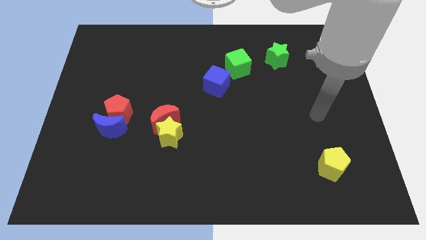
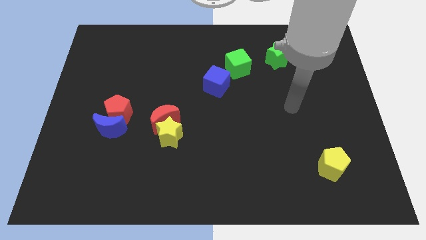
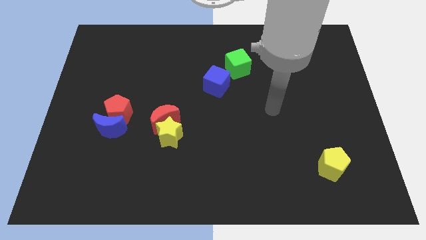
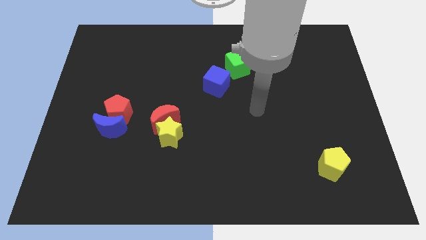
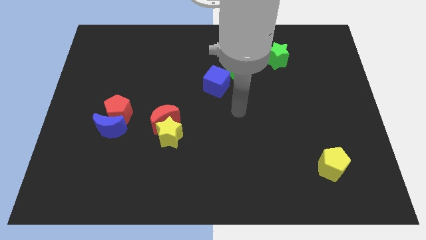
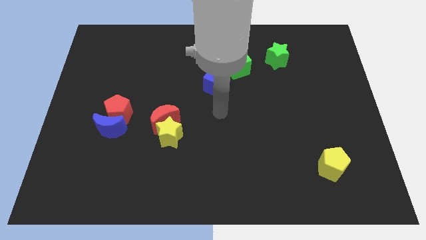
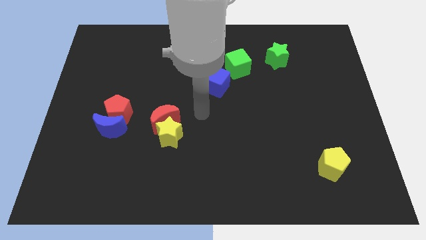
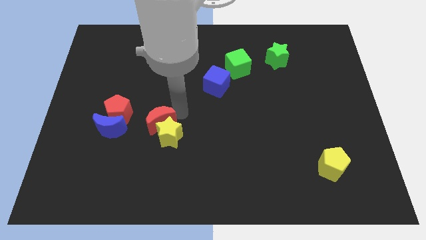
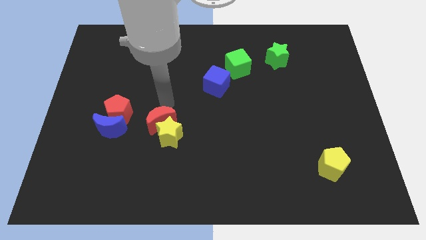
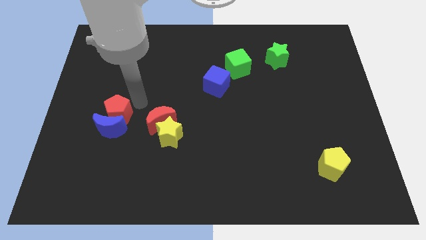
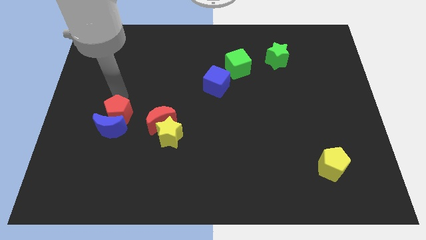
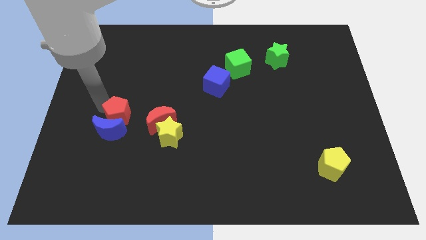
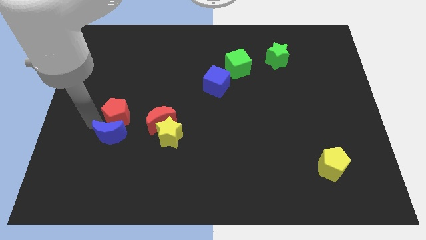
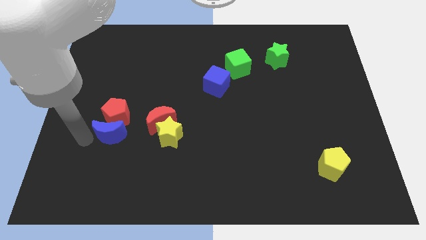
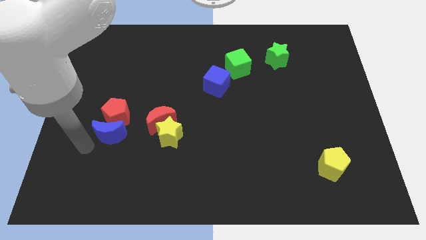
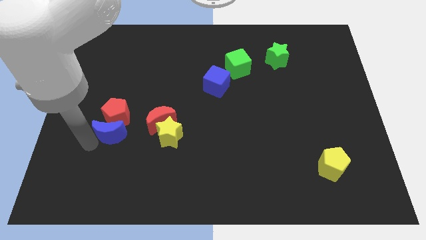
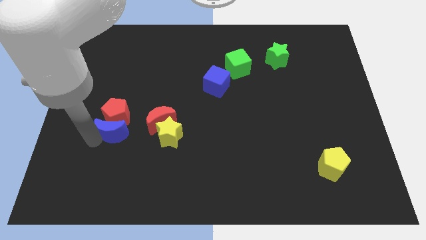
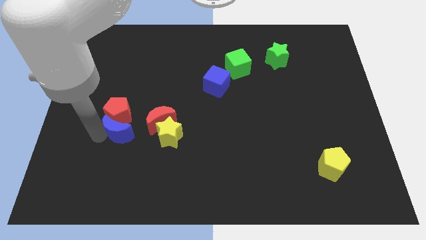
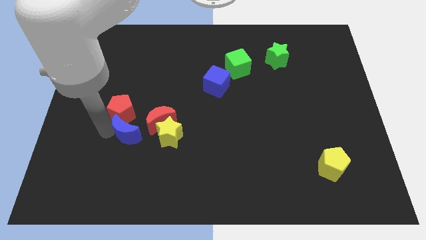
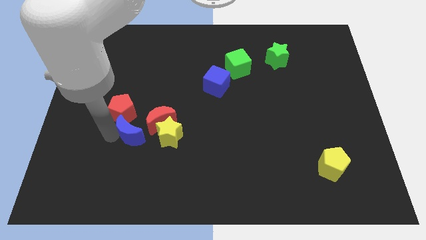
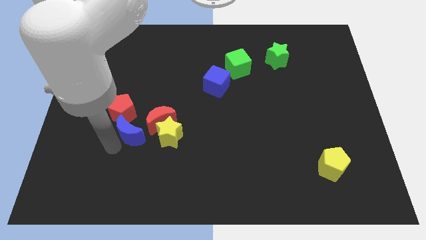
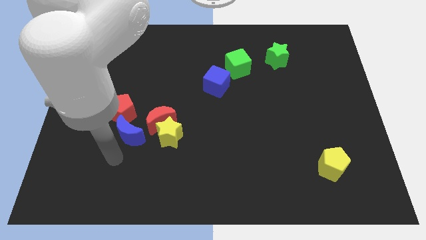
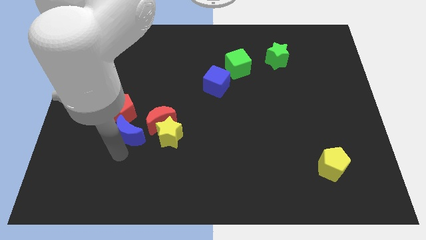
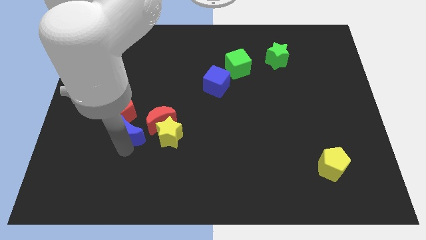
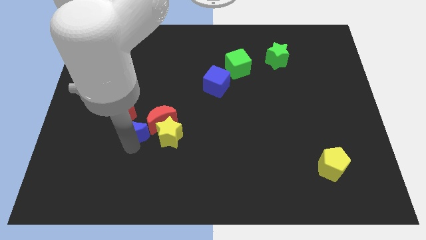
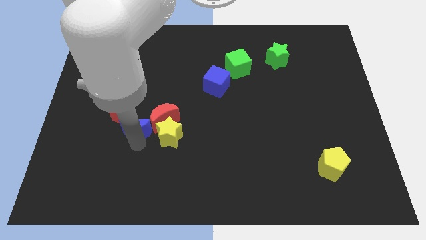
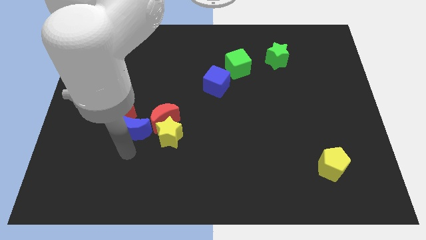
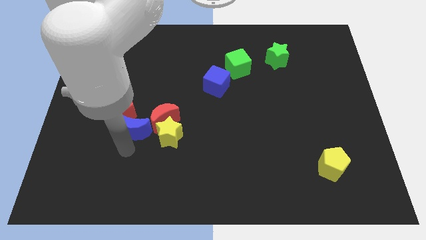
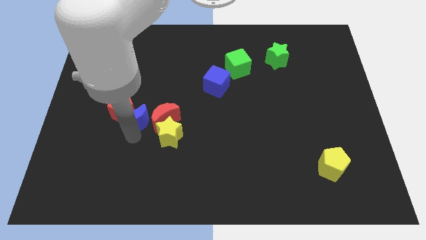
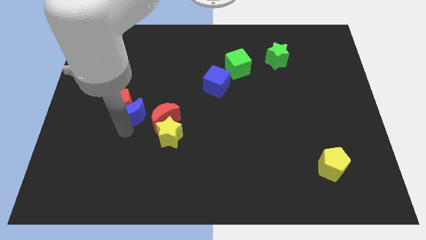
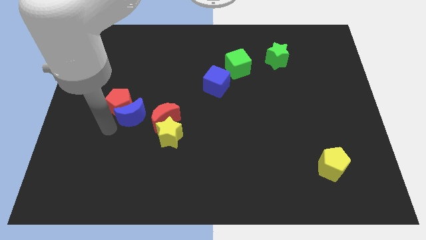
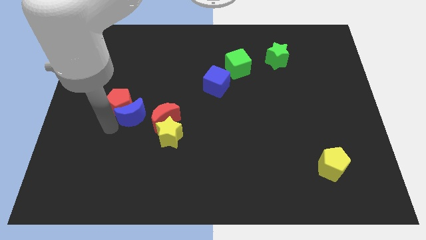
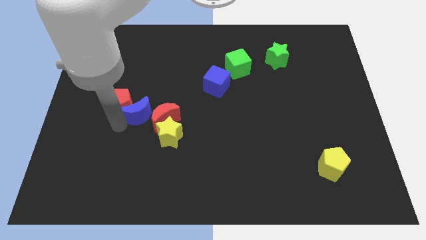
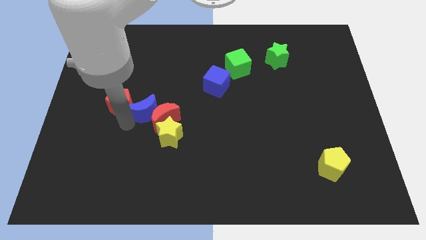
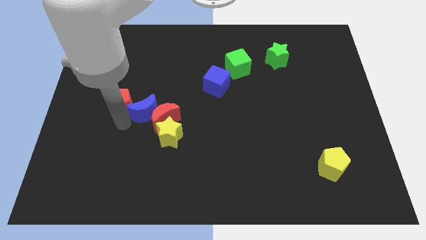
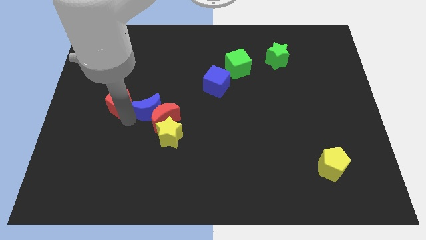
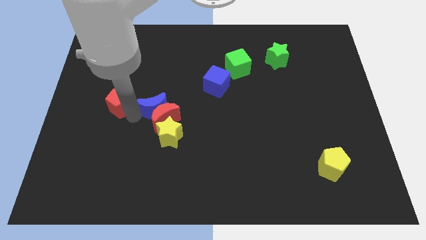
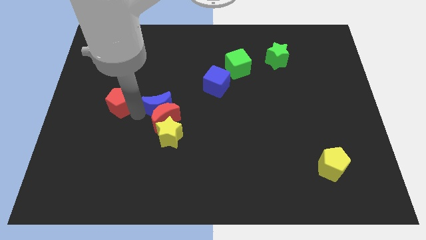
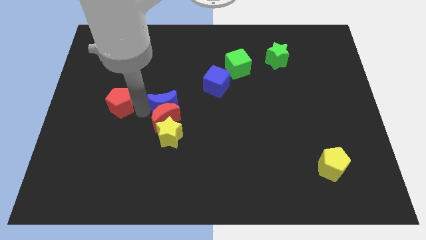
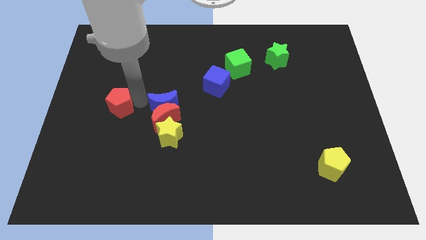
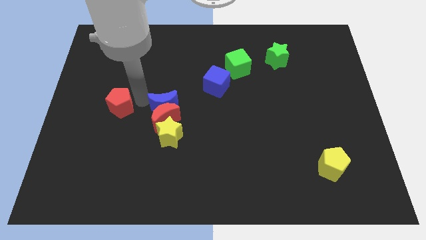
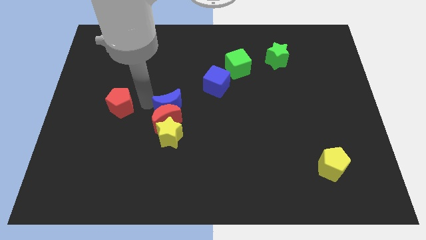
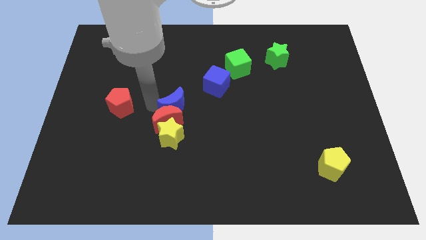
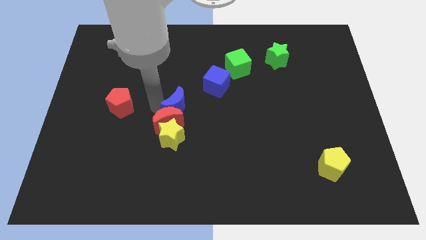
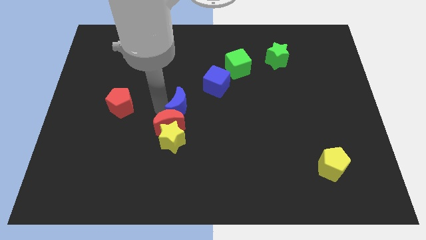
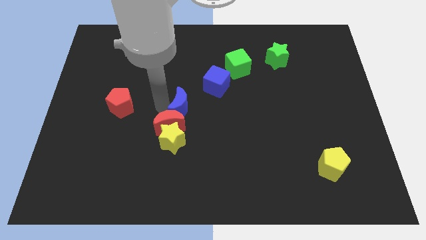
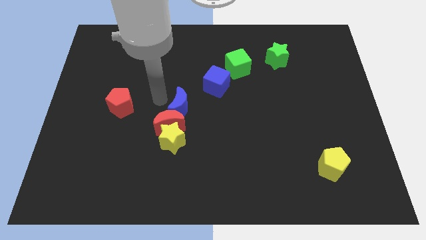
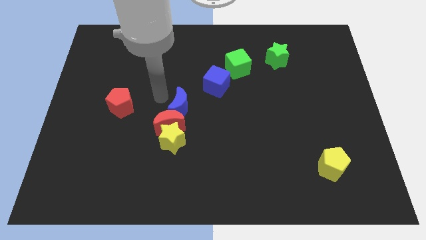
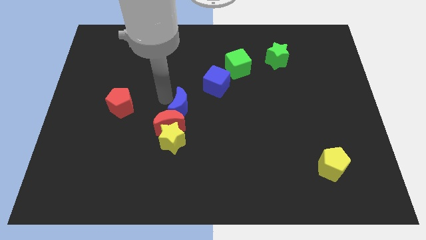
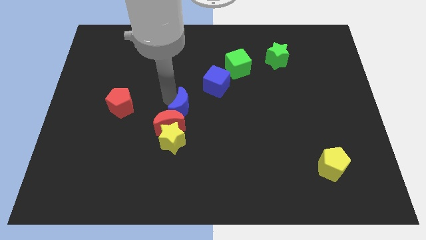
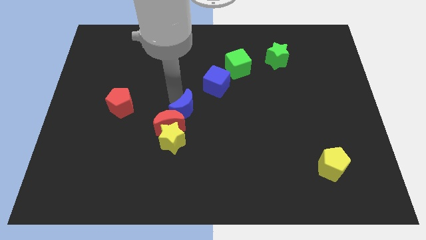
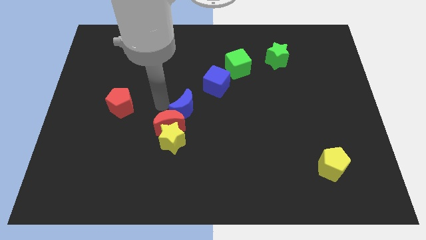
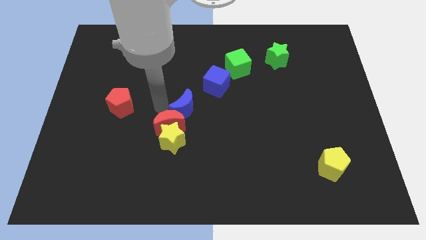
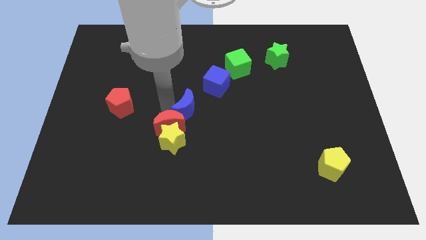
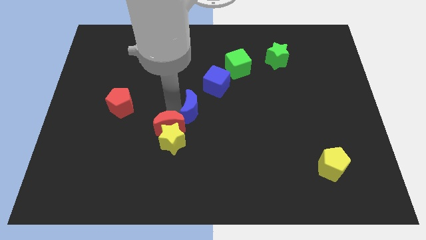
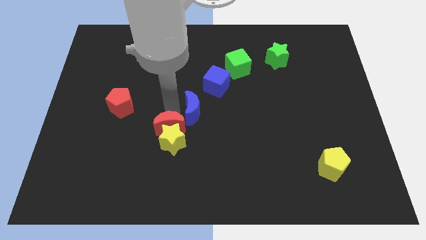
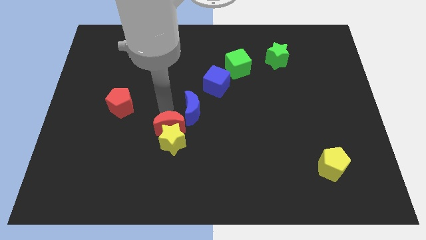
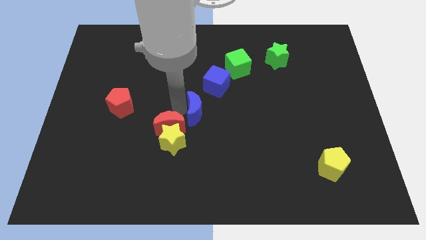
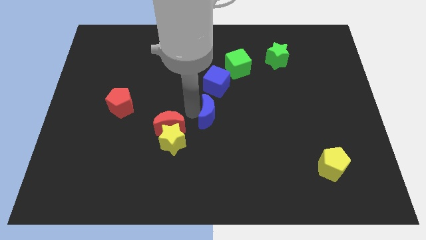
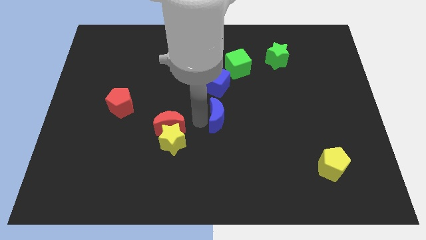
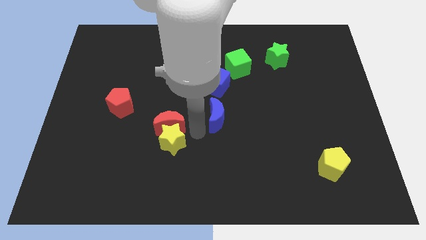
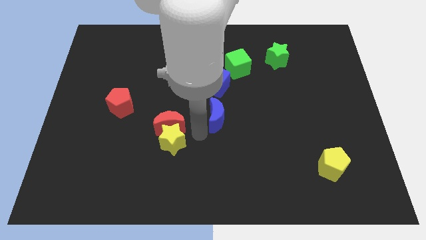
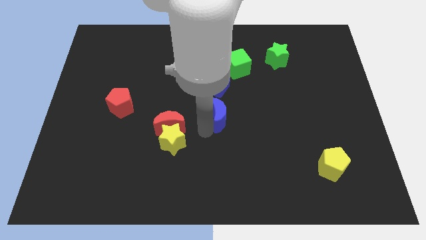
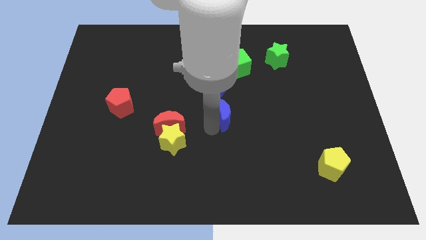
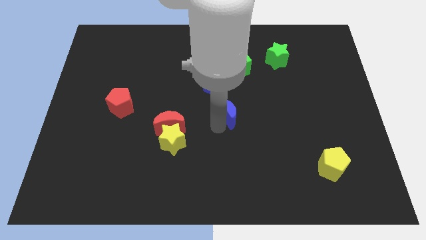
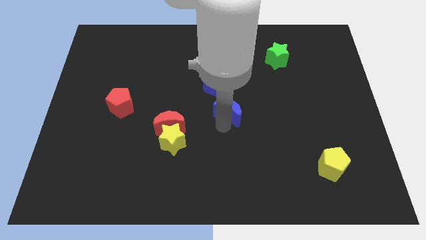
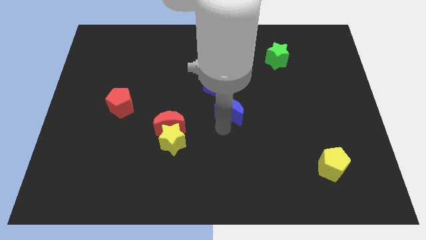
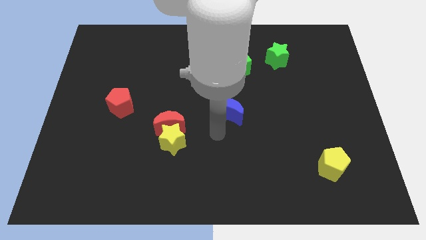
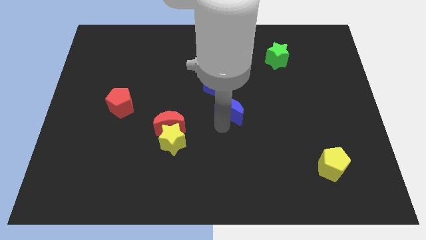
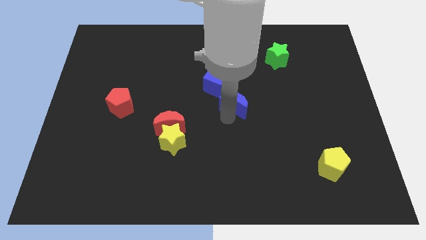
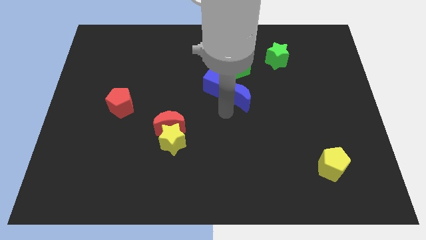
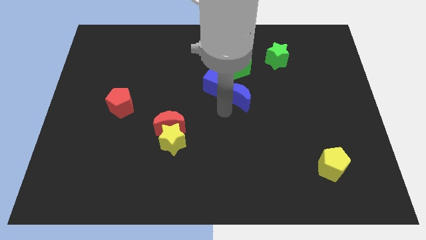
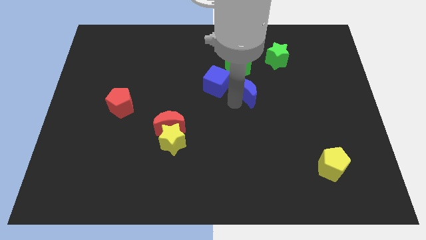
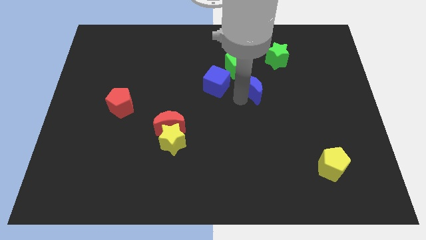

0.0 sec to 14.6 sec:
move the blue moon to the bottom right side of the green cube
